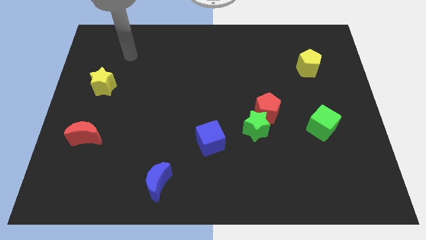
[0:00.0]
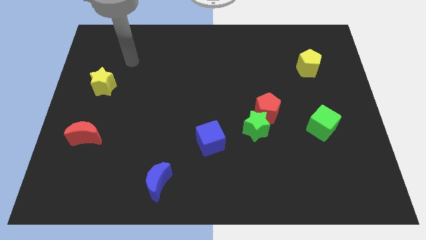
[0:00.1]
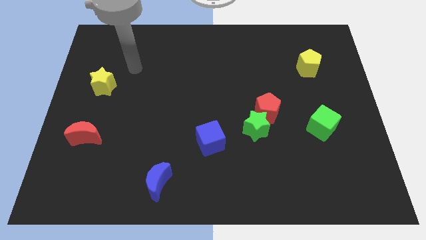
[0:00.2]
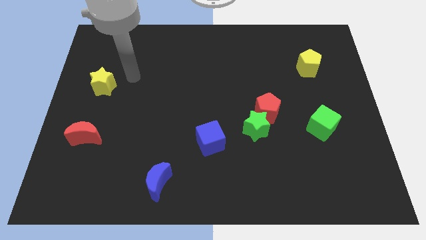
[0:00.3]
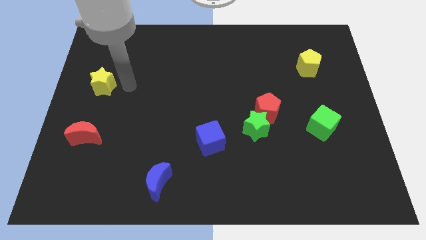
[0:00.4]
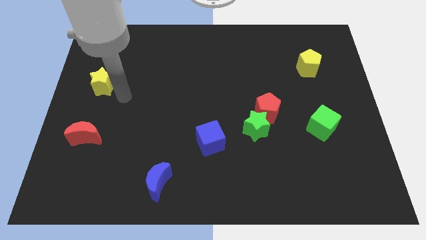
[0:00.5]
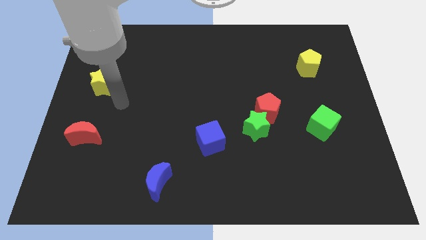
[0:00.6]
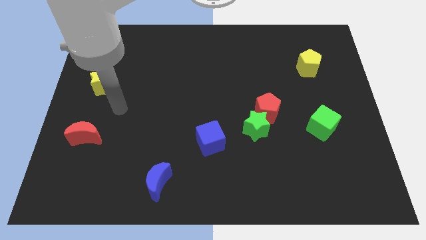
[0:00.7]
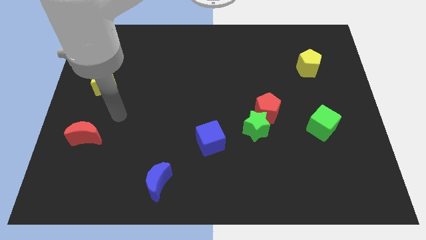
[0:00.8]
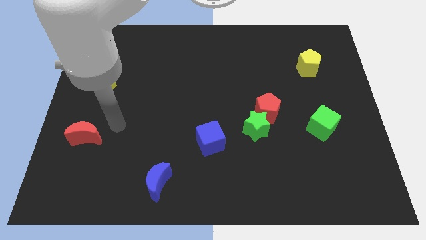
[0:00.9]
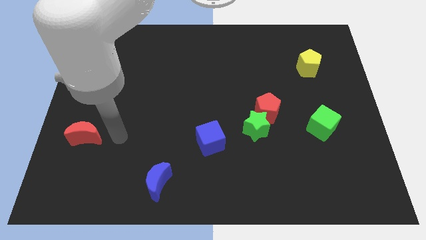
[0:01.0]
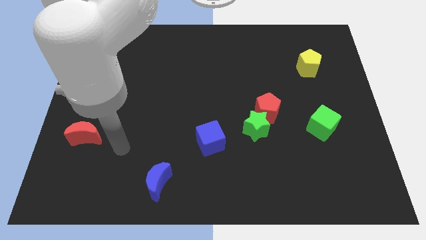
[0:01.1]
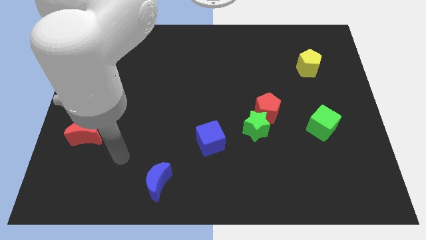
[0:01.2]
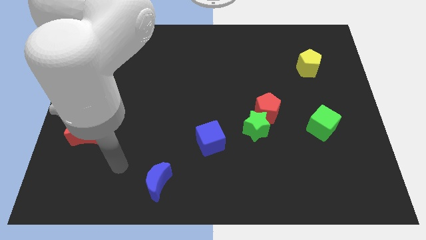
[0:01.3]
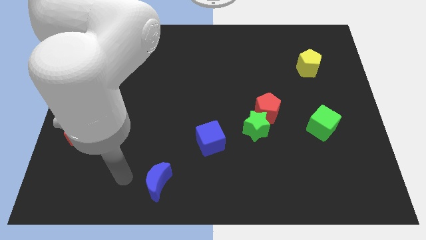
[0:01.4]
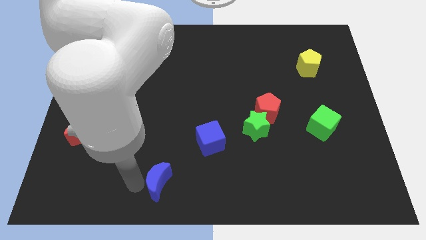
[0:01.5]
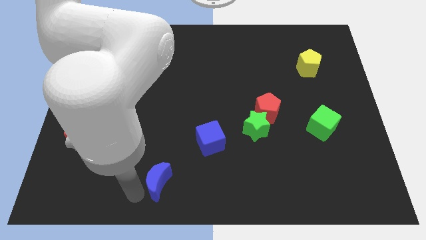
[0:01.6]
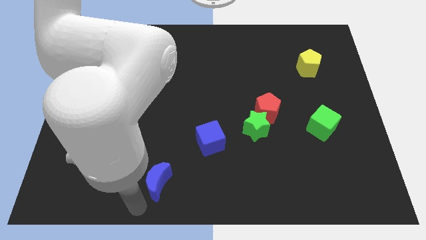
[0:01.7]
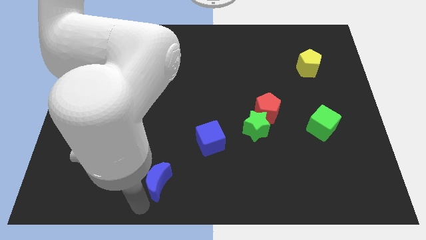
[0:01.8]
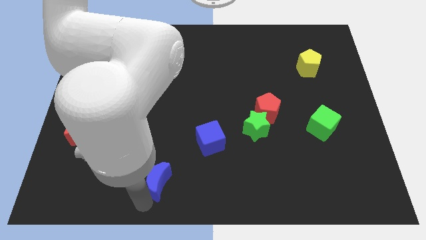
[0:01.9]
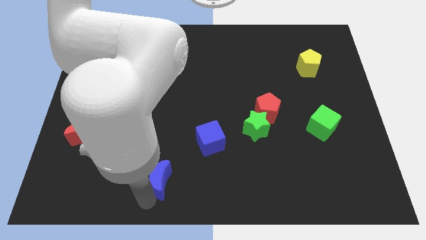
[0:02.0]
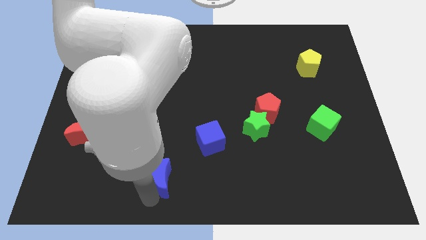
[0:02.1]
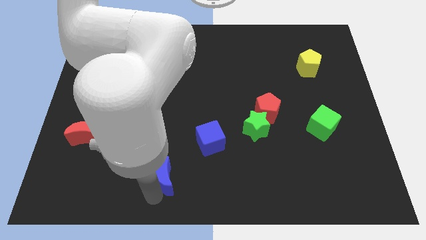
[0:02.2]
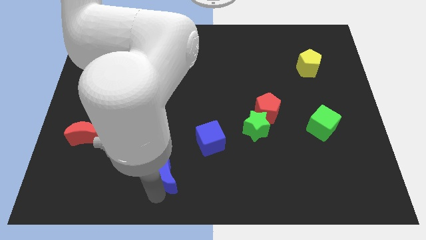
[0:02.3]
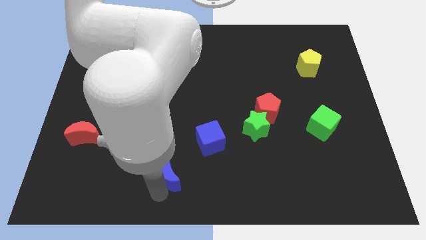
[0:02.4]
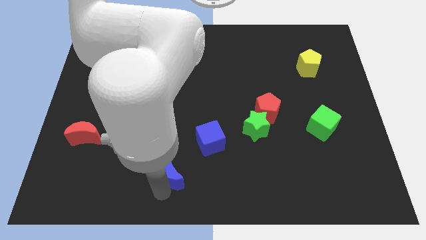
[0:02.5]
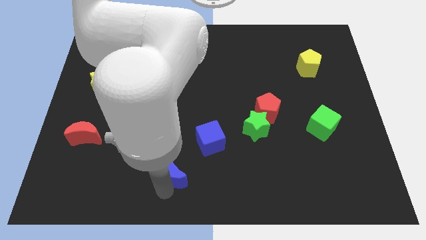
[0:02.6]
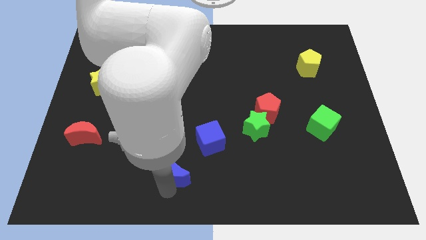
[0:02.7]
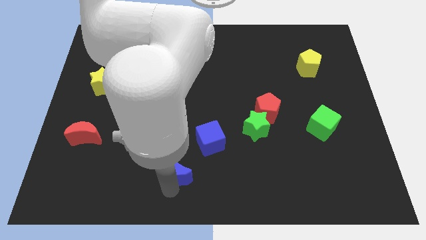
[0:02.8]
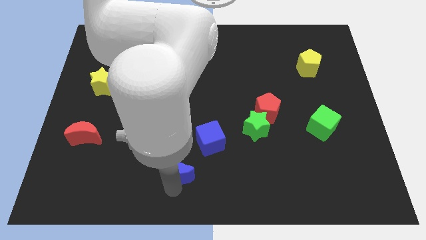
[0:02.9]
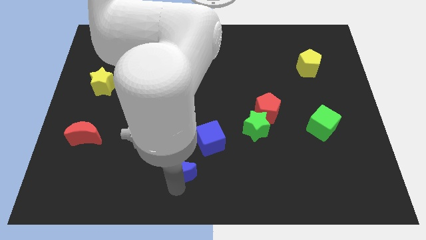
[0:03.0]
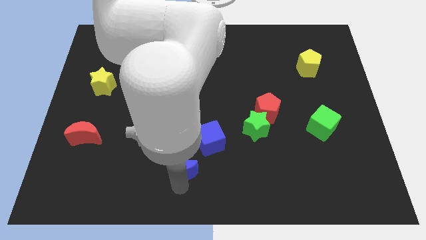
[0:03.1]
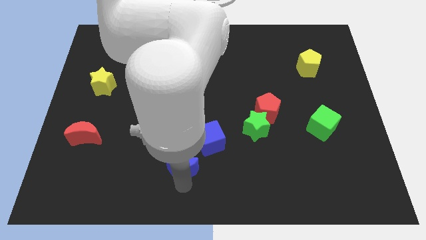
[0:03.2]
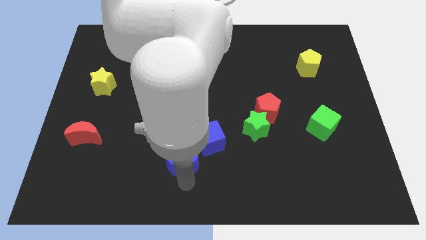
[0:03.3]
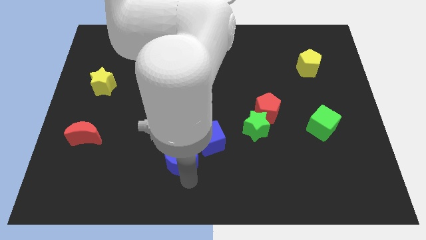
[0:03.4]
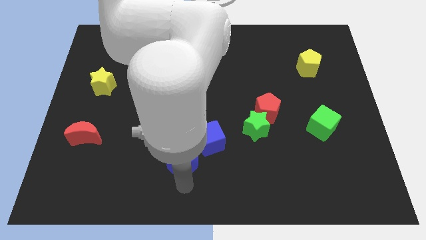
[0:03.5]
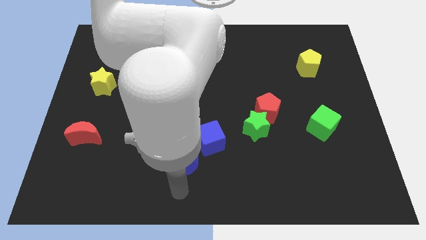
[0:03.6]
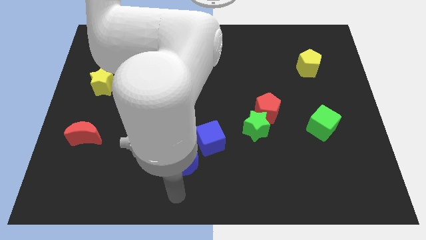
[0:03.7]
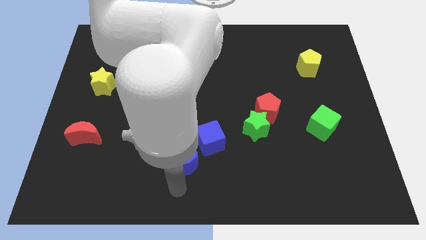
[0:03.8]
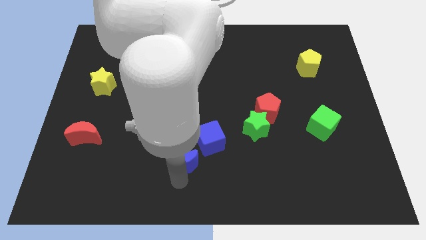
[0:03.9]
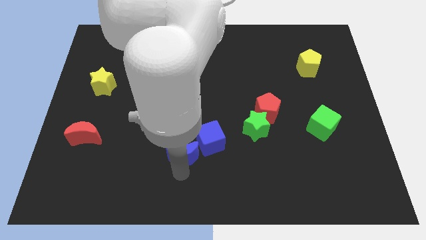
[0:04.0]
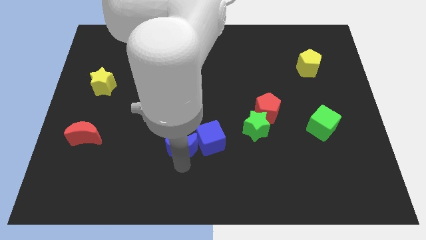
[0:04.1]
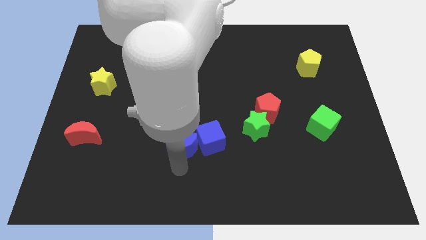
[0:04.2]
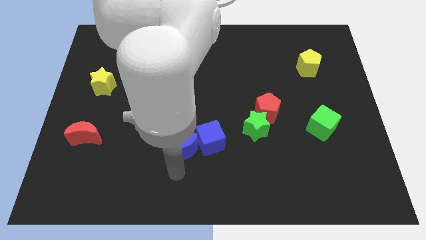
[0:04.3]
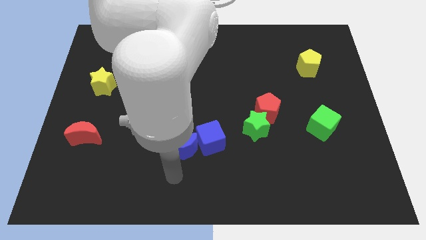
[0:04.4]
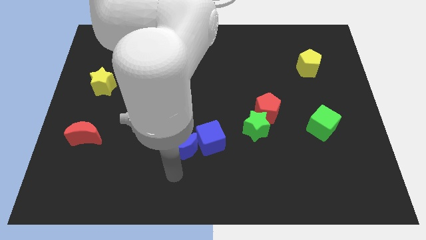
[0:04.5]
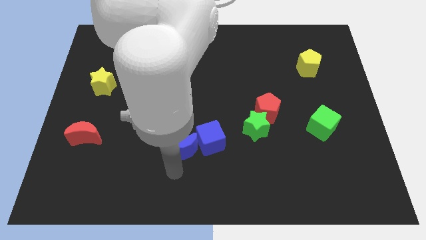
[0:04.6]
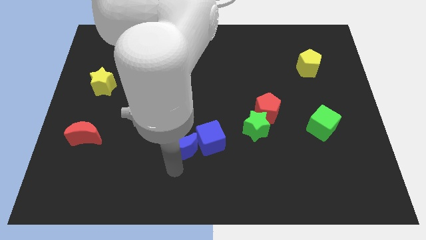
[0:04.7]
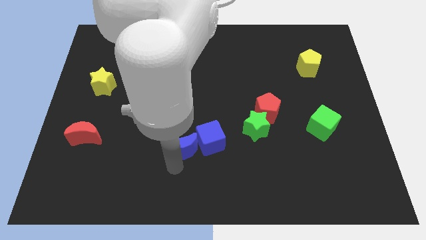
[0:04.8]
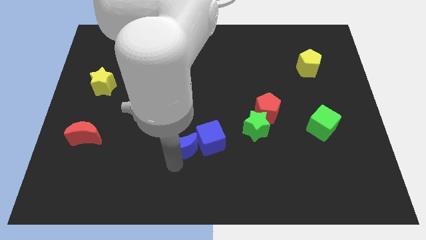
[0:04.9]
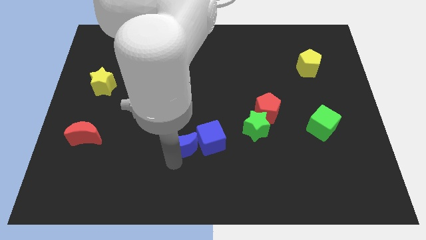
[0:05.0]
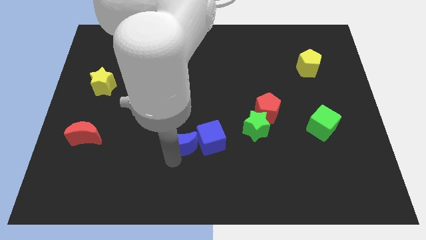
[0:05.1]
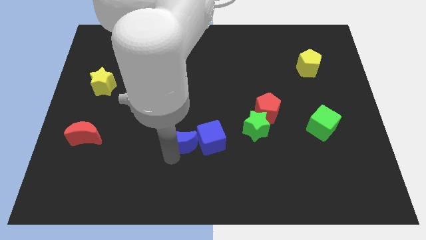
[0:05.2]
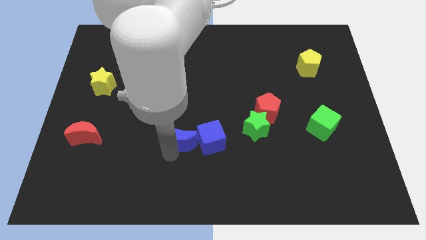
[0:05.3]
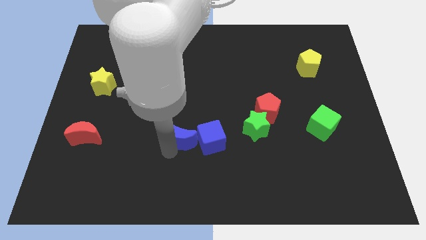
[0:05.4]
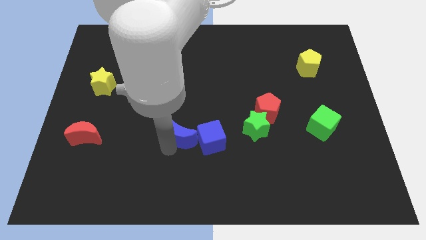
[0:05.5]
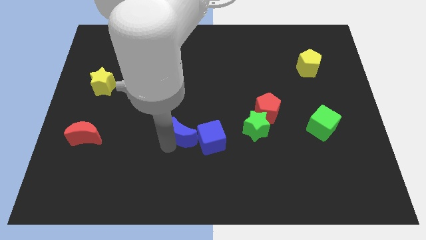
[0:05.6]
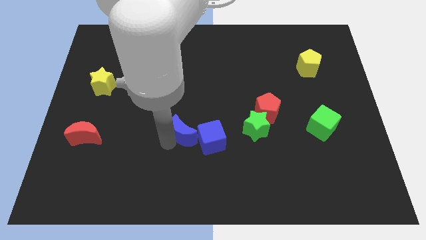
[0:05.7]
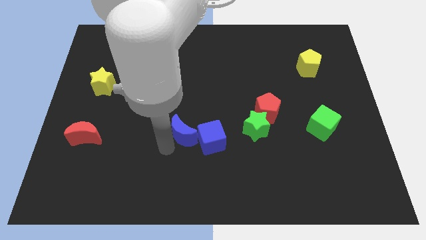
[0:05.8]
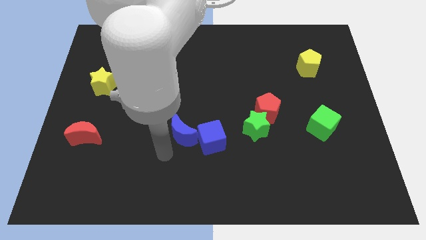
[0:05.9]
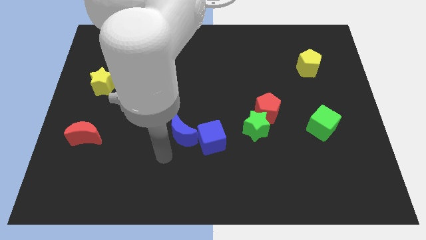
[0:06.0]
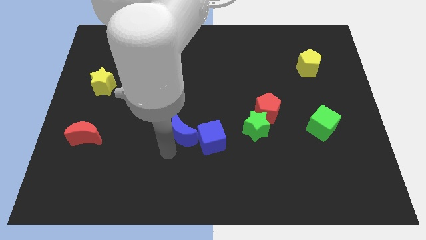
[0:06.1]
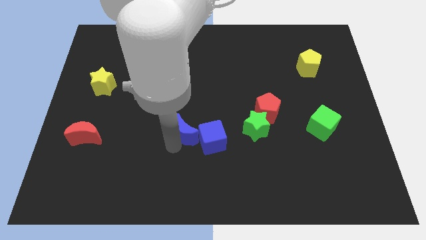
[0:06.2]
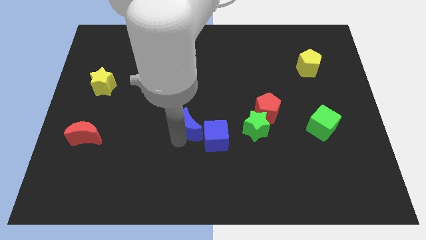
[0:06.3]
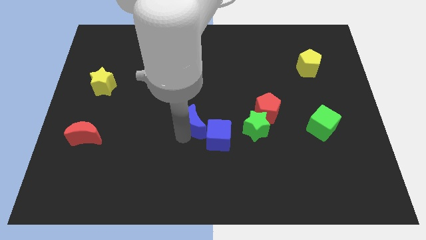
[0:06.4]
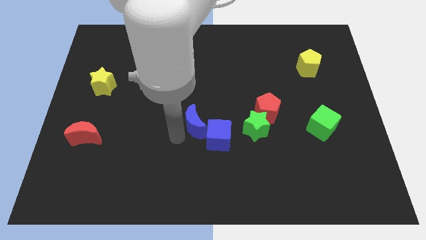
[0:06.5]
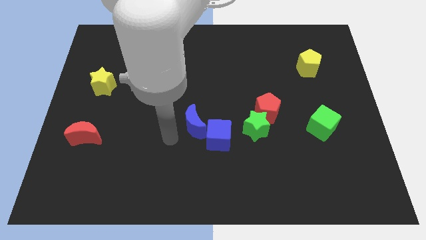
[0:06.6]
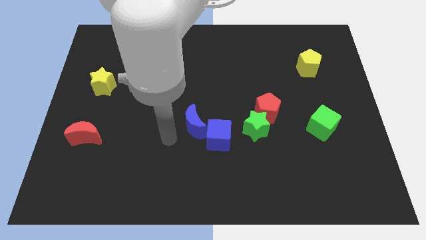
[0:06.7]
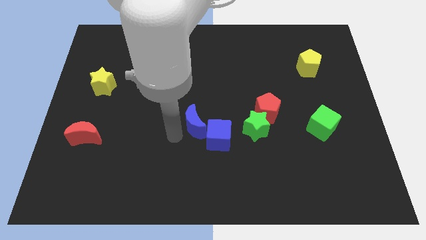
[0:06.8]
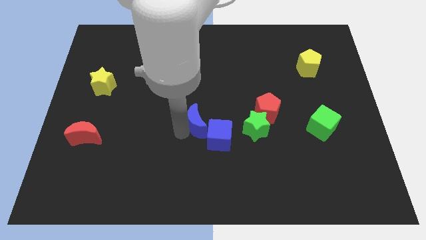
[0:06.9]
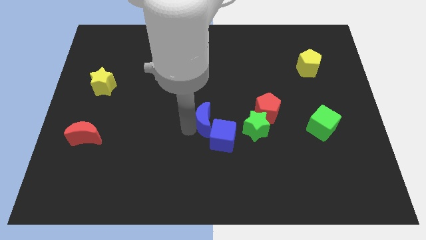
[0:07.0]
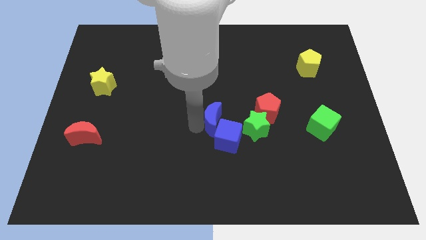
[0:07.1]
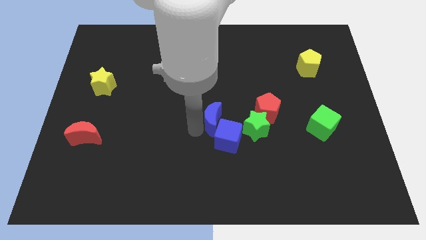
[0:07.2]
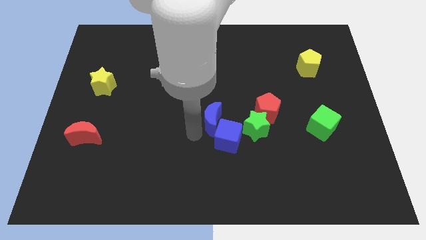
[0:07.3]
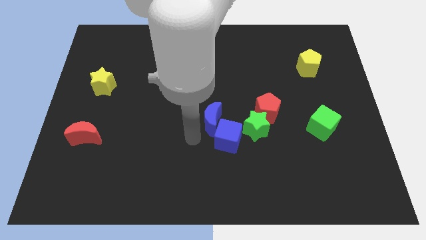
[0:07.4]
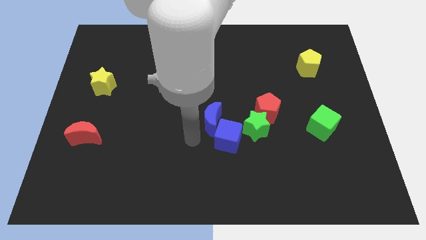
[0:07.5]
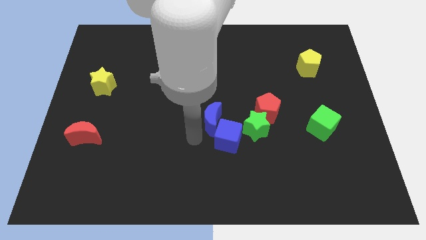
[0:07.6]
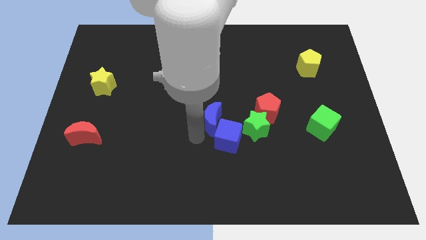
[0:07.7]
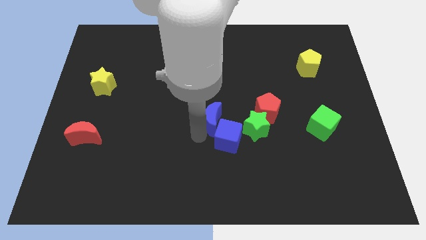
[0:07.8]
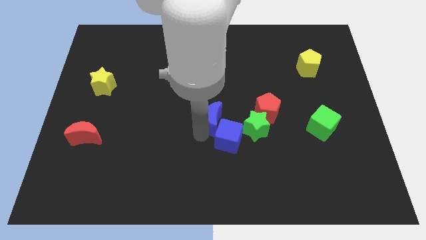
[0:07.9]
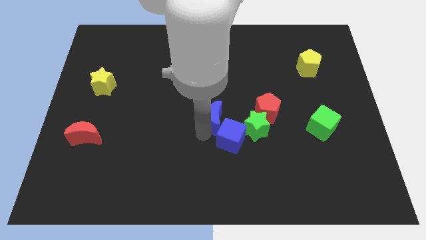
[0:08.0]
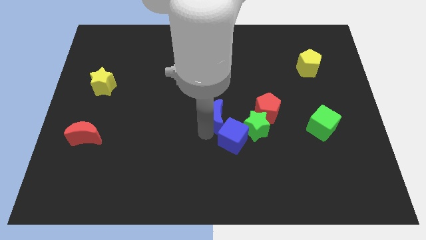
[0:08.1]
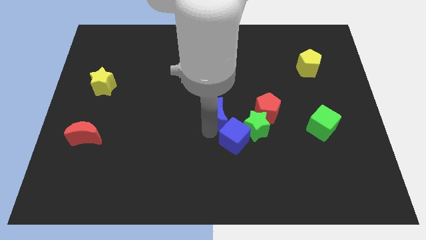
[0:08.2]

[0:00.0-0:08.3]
push the blue moon up and right diagonally
